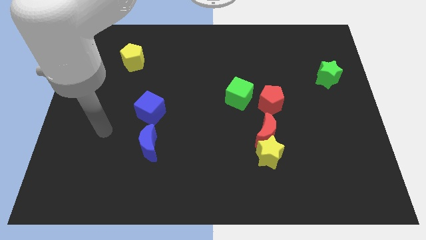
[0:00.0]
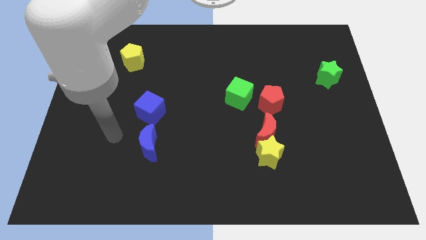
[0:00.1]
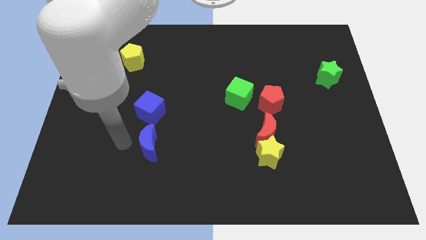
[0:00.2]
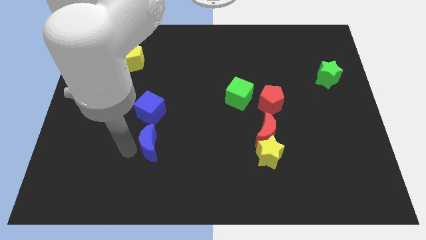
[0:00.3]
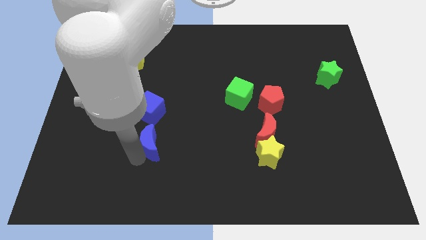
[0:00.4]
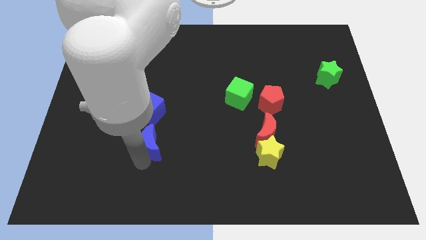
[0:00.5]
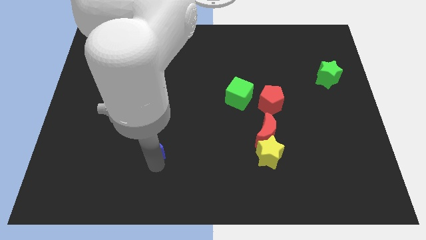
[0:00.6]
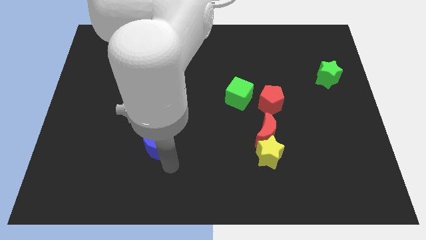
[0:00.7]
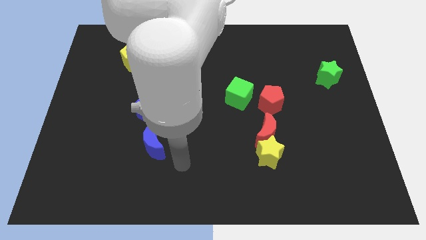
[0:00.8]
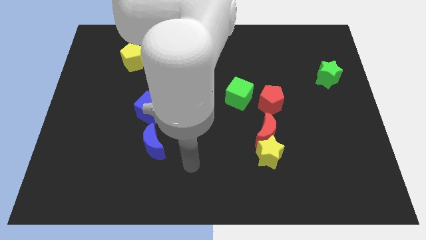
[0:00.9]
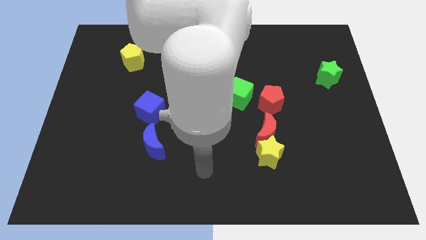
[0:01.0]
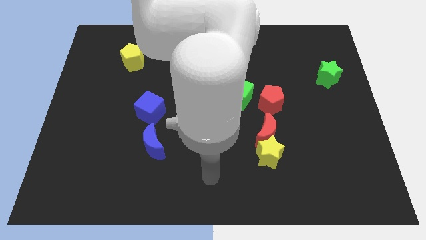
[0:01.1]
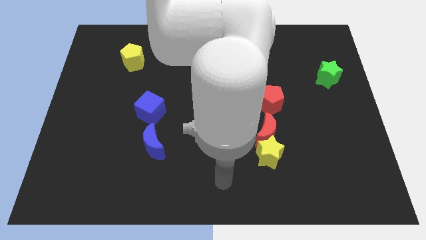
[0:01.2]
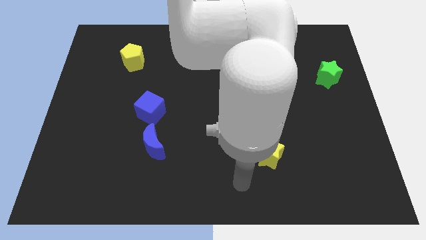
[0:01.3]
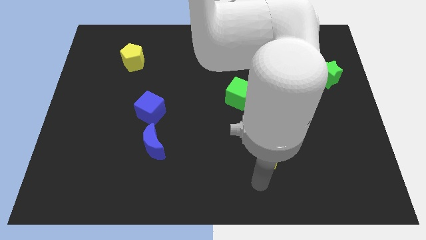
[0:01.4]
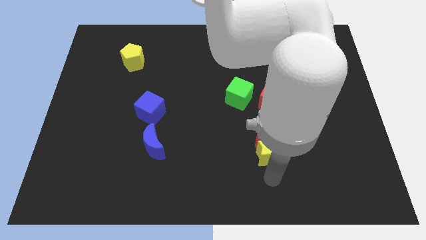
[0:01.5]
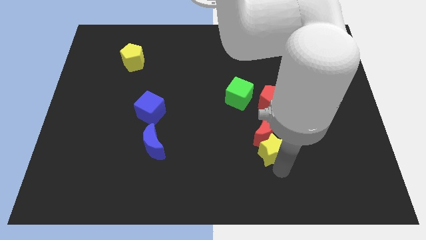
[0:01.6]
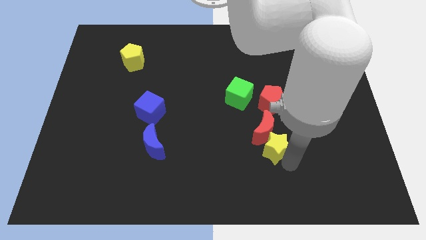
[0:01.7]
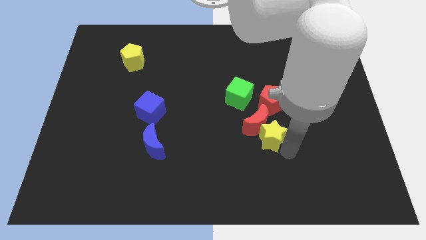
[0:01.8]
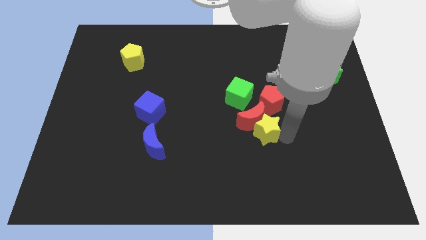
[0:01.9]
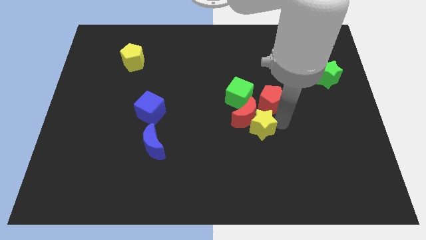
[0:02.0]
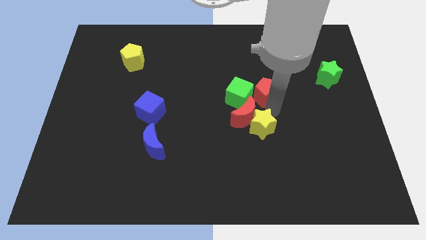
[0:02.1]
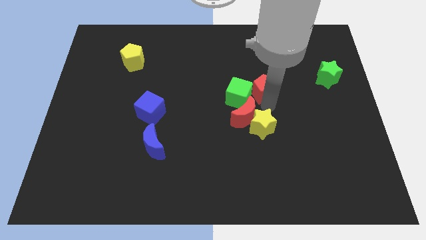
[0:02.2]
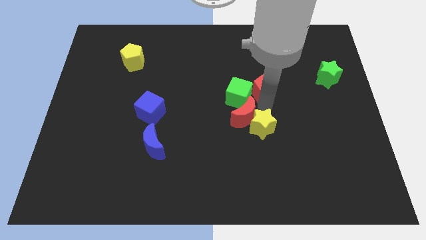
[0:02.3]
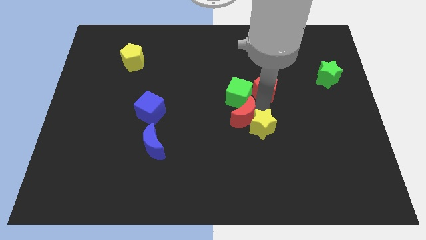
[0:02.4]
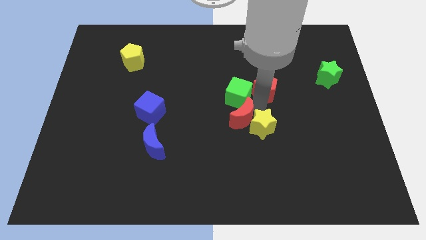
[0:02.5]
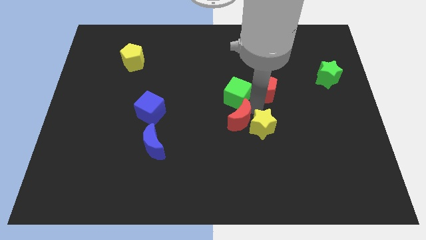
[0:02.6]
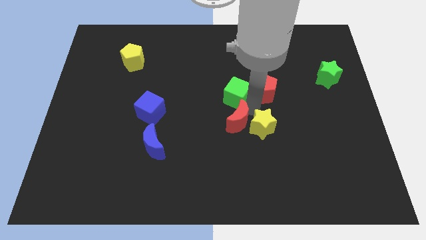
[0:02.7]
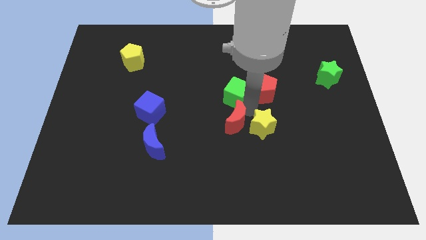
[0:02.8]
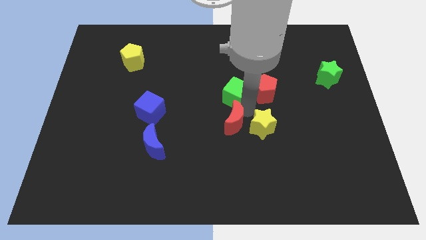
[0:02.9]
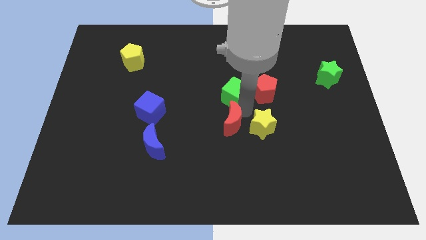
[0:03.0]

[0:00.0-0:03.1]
slide the red moon a bit left

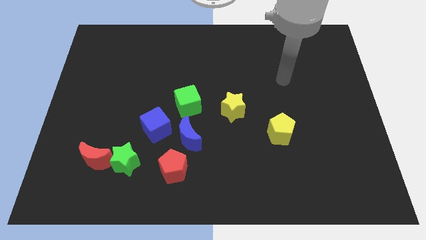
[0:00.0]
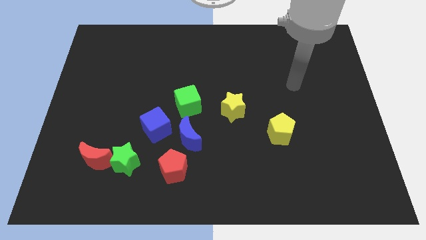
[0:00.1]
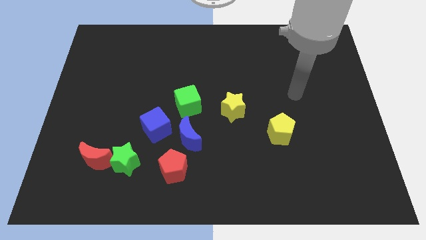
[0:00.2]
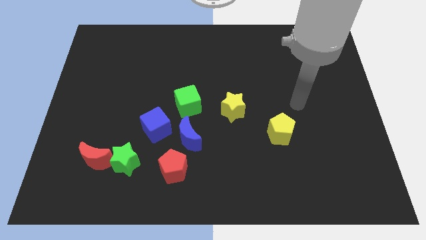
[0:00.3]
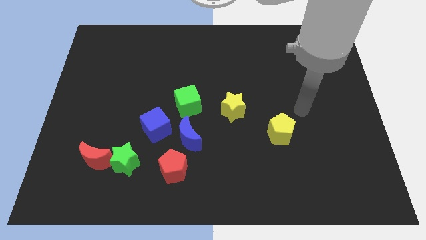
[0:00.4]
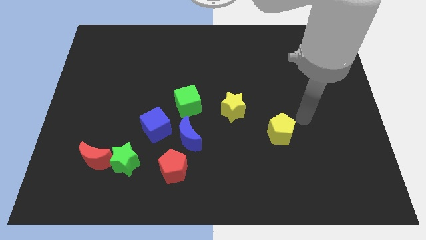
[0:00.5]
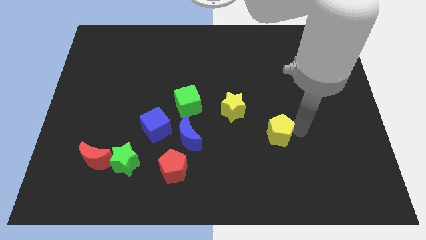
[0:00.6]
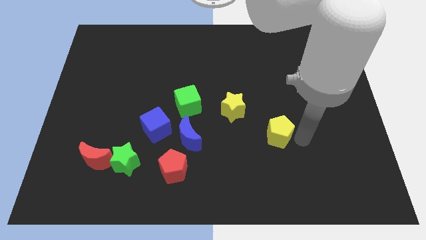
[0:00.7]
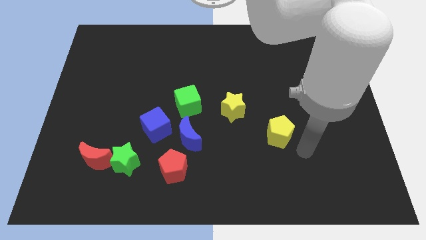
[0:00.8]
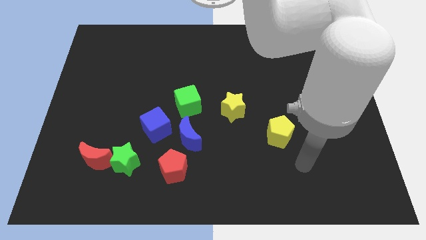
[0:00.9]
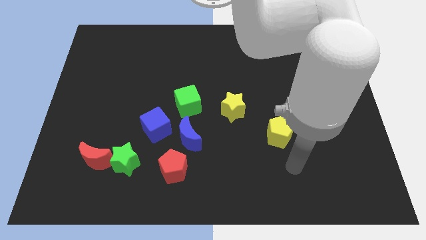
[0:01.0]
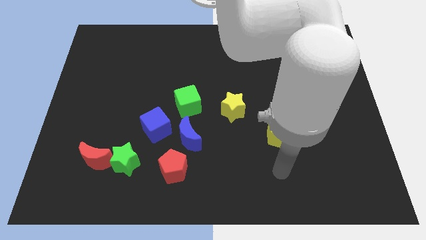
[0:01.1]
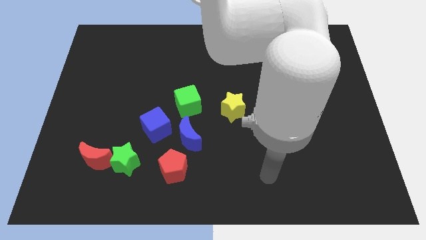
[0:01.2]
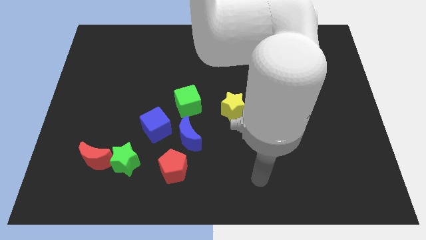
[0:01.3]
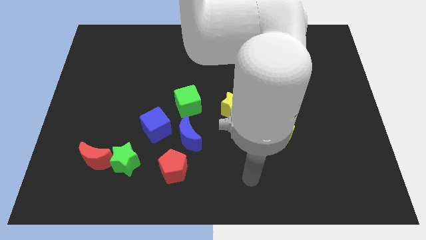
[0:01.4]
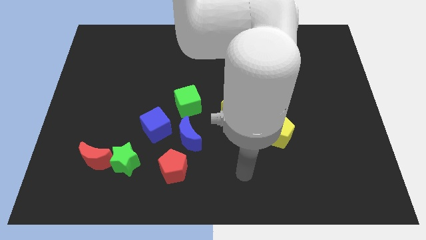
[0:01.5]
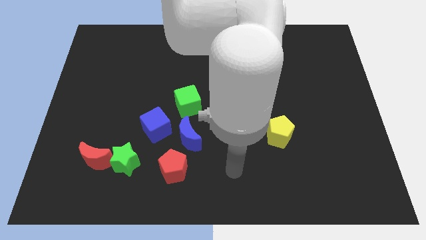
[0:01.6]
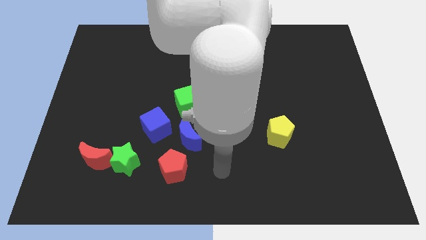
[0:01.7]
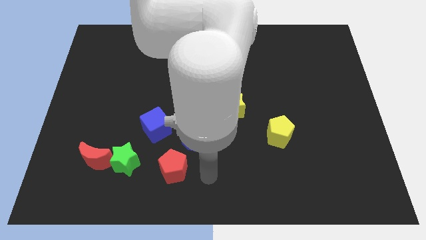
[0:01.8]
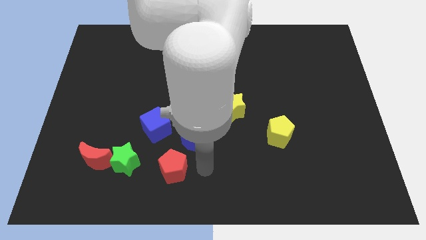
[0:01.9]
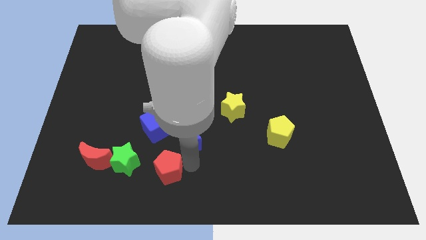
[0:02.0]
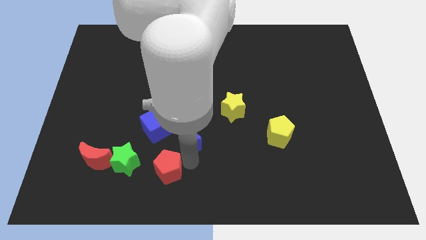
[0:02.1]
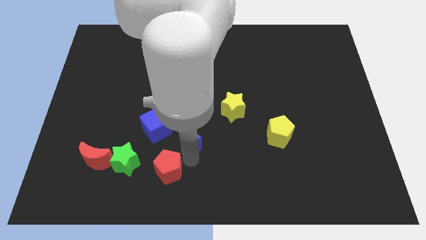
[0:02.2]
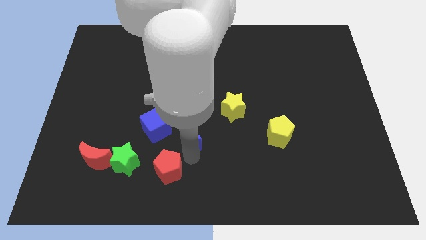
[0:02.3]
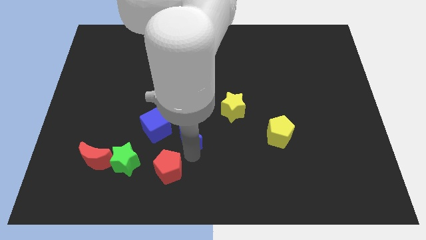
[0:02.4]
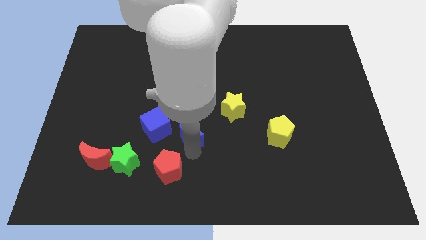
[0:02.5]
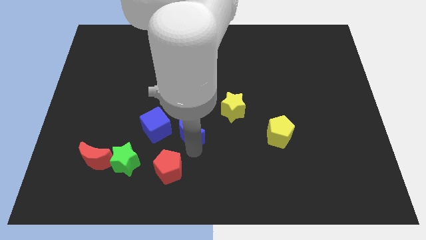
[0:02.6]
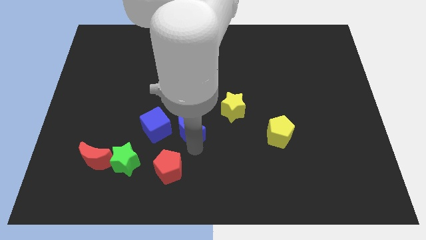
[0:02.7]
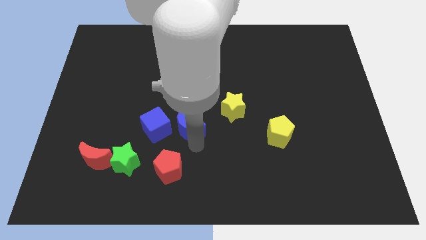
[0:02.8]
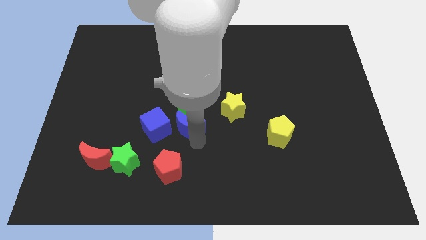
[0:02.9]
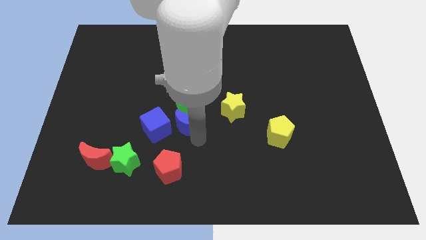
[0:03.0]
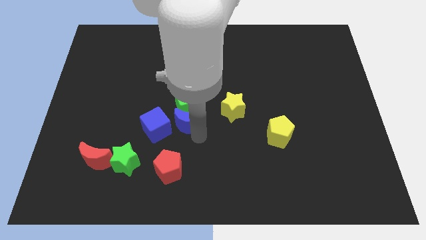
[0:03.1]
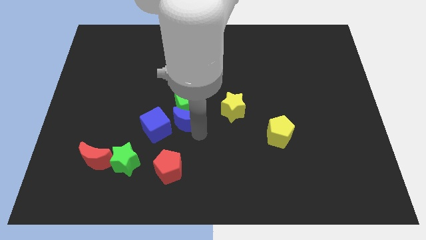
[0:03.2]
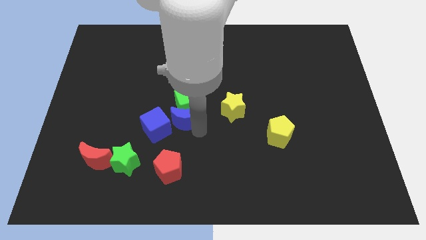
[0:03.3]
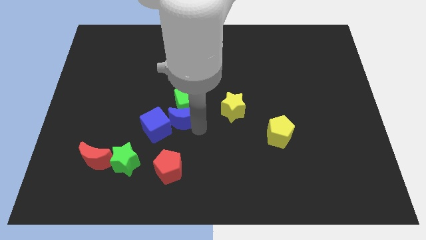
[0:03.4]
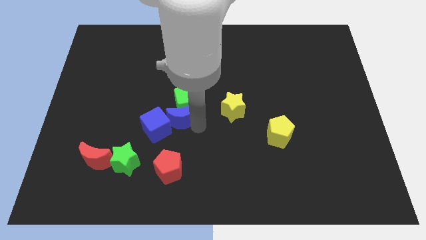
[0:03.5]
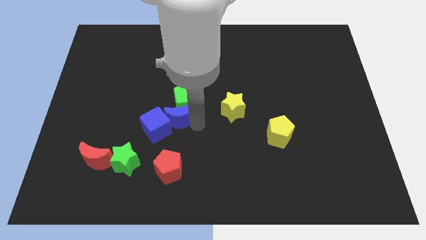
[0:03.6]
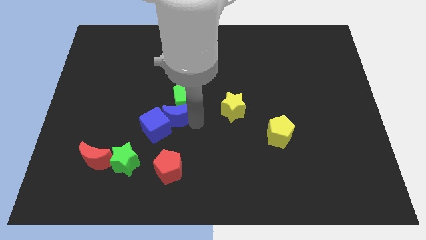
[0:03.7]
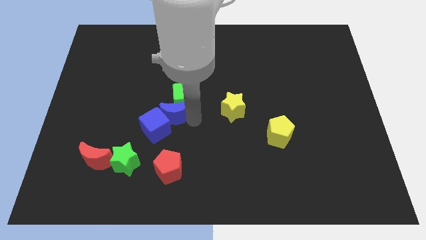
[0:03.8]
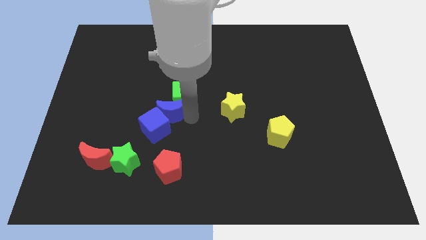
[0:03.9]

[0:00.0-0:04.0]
slide the blue moon upwards and to the left diagonally slightly

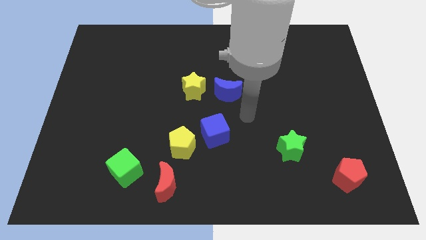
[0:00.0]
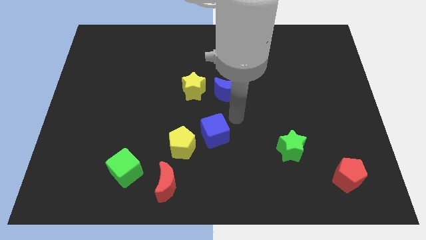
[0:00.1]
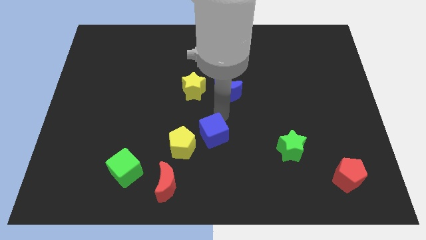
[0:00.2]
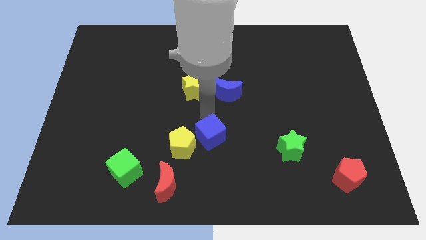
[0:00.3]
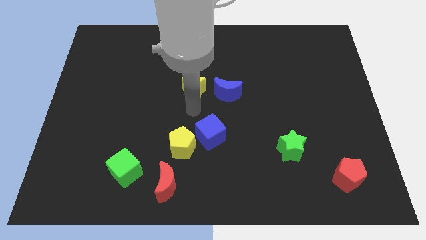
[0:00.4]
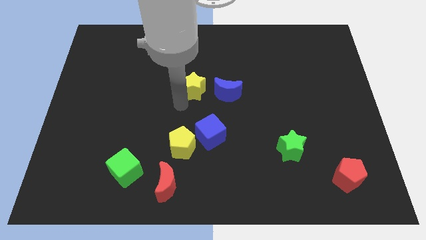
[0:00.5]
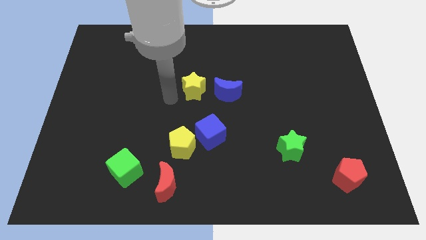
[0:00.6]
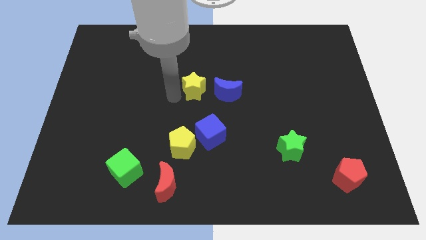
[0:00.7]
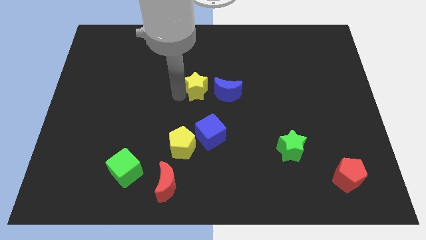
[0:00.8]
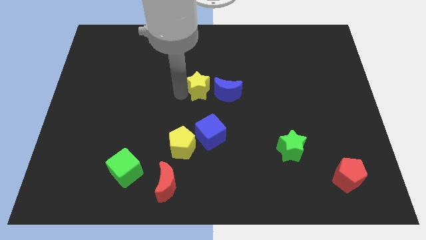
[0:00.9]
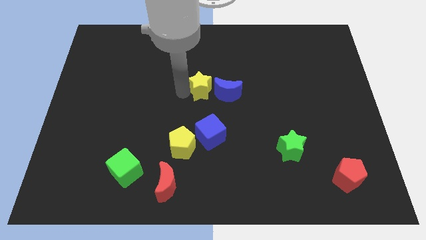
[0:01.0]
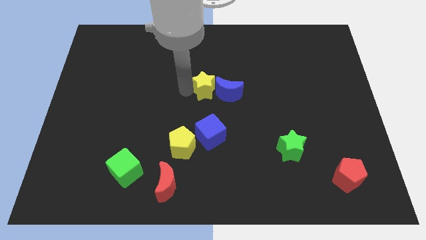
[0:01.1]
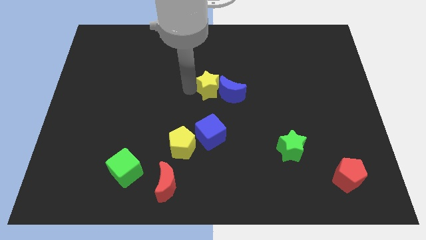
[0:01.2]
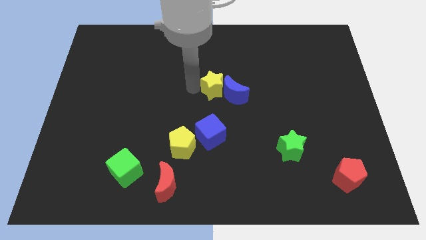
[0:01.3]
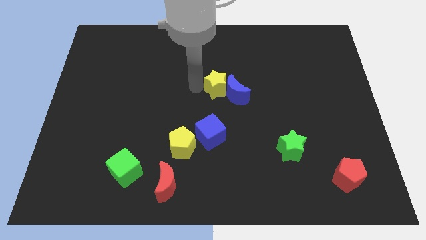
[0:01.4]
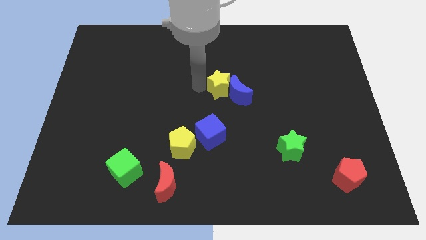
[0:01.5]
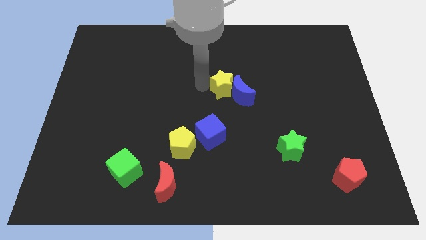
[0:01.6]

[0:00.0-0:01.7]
move the yellow star right a bit
